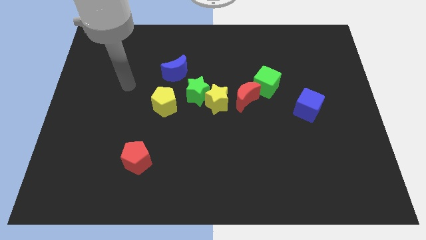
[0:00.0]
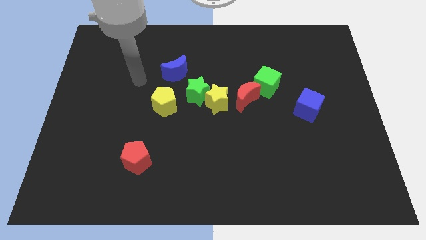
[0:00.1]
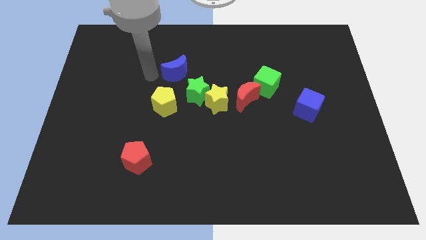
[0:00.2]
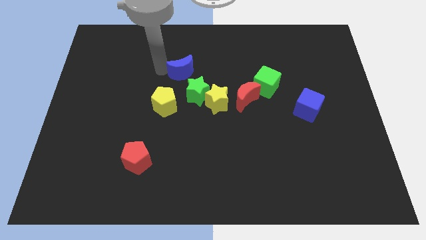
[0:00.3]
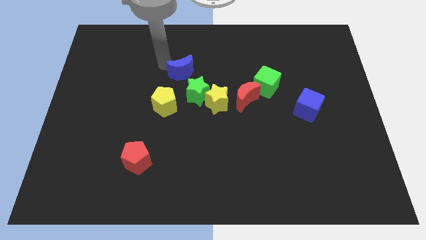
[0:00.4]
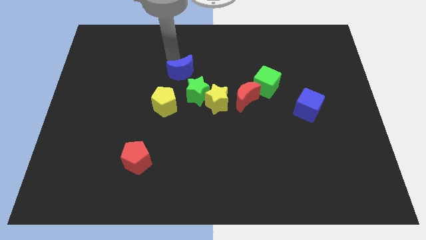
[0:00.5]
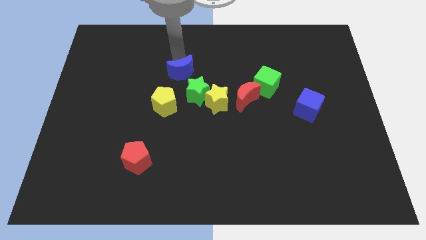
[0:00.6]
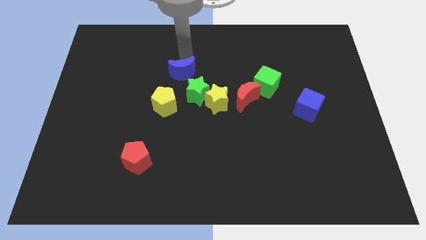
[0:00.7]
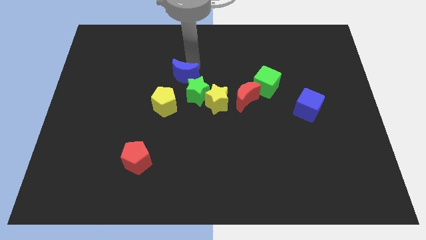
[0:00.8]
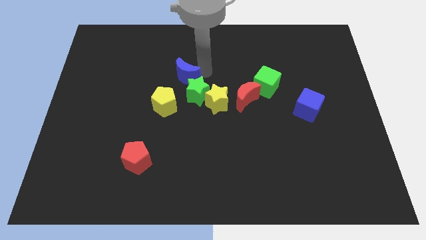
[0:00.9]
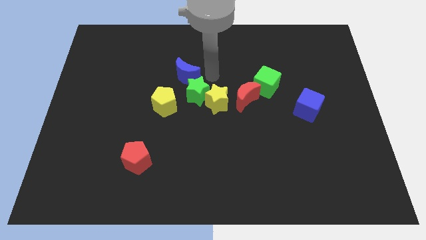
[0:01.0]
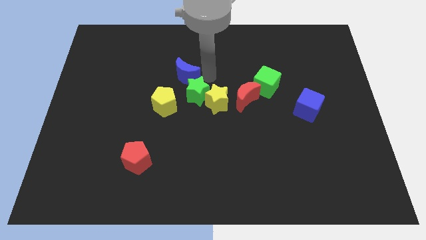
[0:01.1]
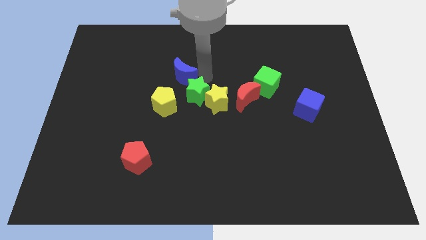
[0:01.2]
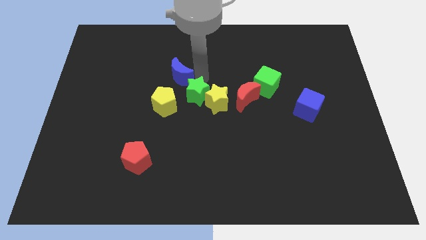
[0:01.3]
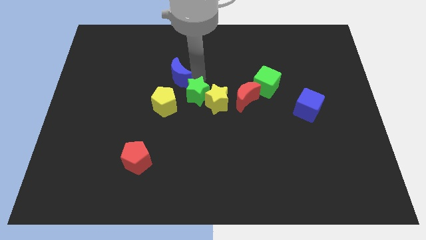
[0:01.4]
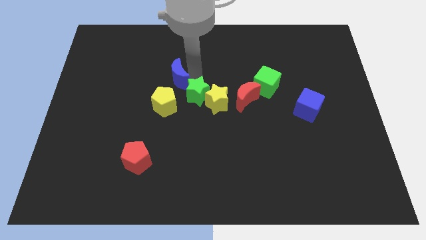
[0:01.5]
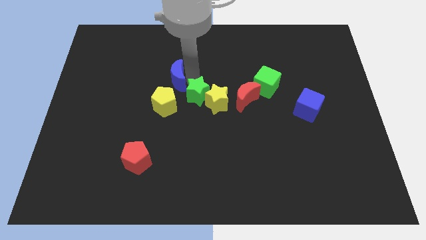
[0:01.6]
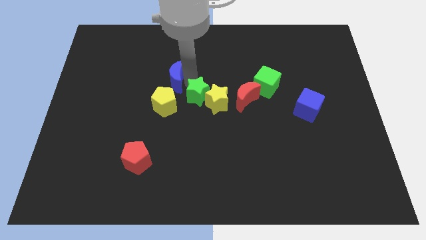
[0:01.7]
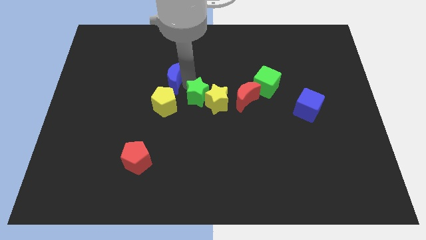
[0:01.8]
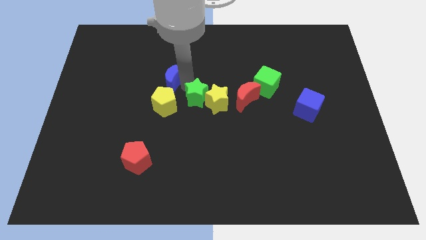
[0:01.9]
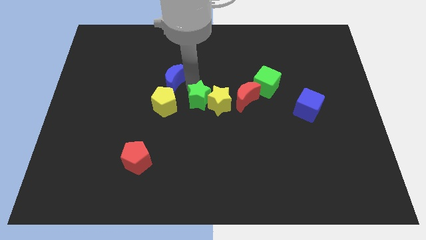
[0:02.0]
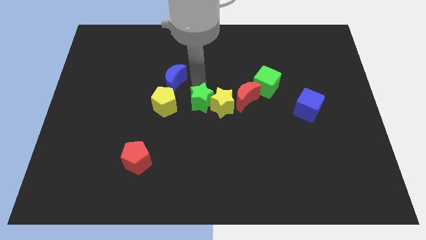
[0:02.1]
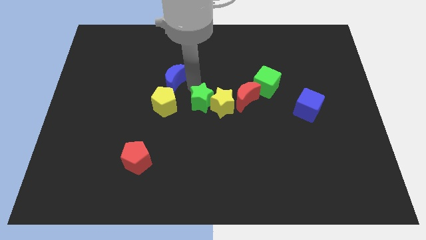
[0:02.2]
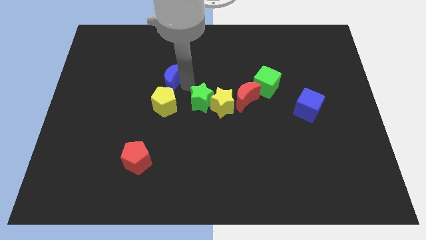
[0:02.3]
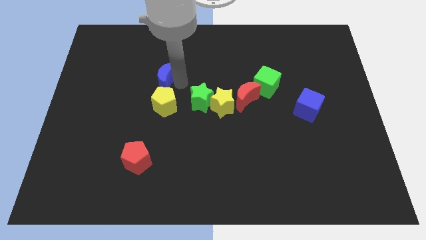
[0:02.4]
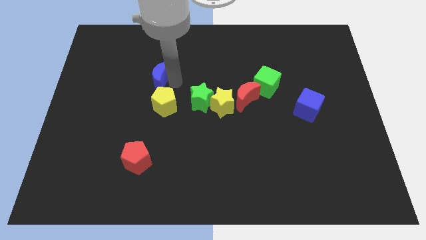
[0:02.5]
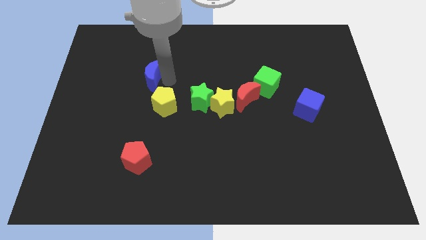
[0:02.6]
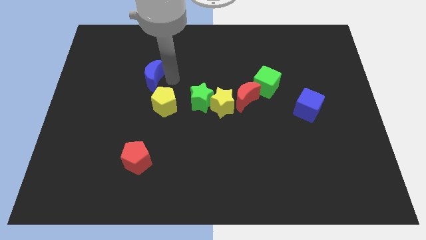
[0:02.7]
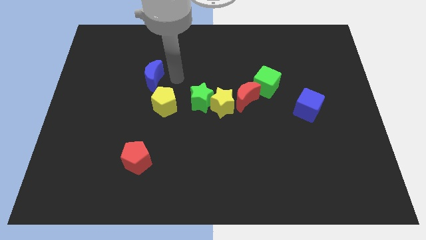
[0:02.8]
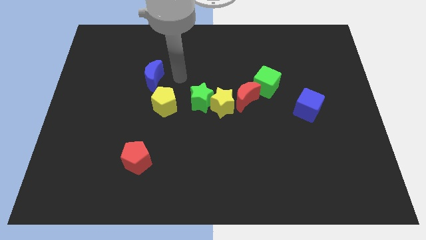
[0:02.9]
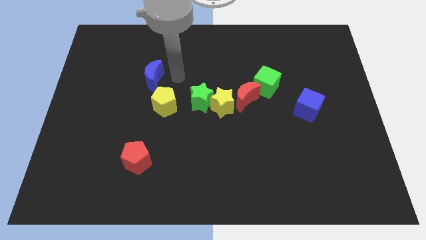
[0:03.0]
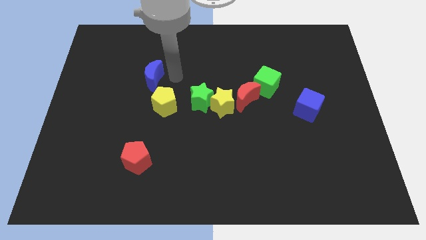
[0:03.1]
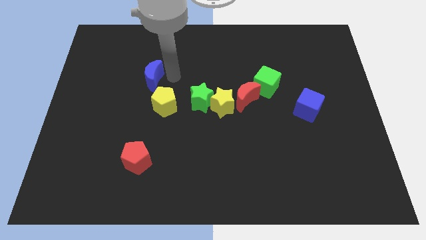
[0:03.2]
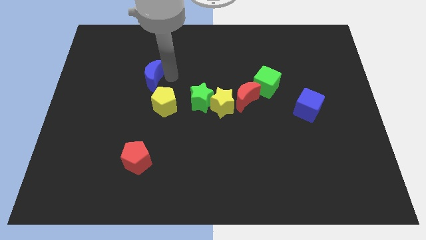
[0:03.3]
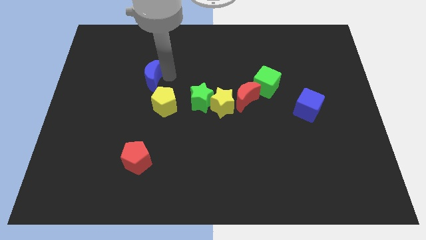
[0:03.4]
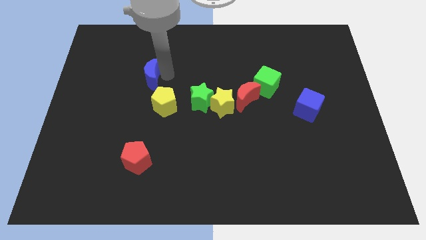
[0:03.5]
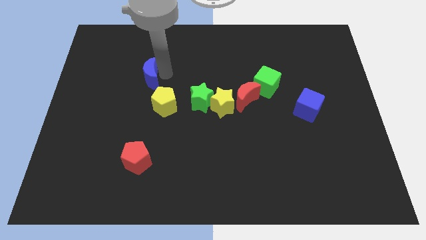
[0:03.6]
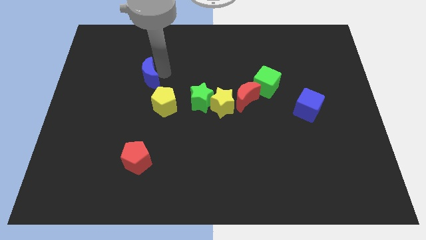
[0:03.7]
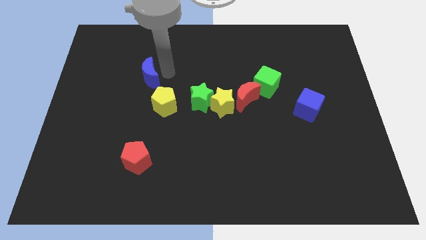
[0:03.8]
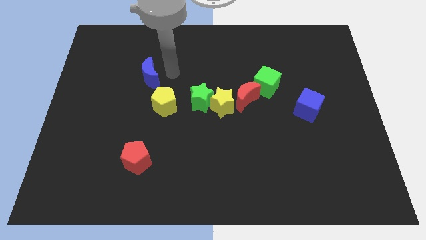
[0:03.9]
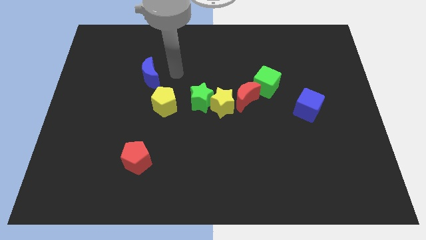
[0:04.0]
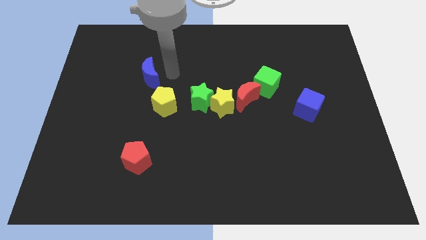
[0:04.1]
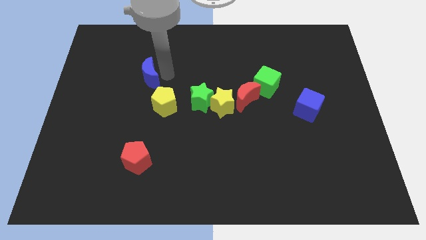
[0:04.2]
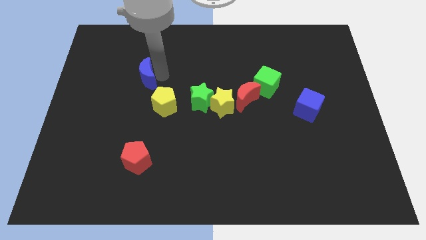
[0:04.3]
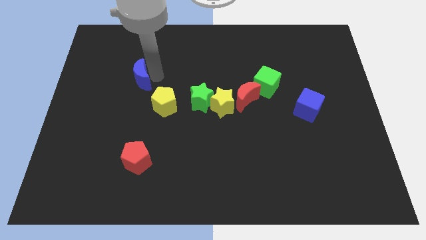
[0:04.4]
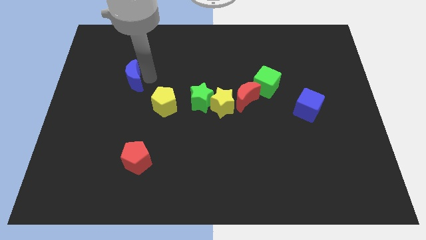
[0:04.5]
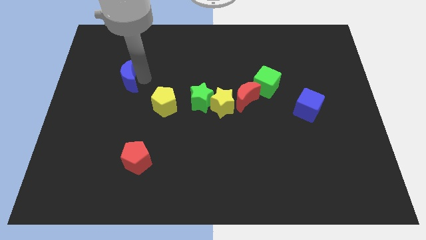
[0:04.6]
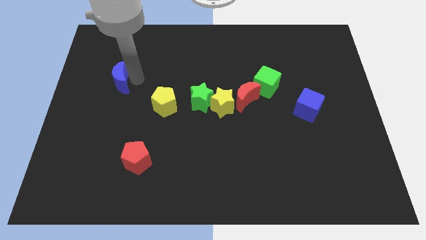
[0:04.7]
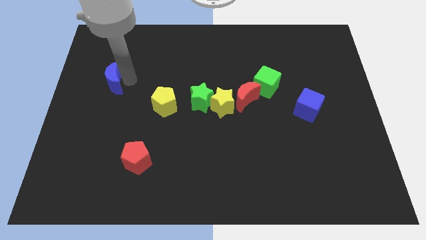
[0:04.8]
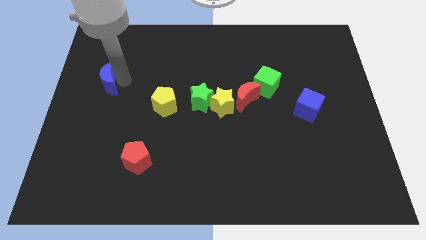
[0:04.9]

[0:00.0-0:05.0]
put the blue moon to the center left

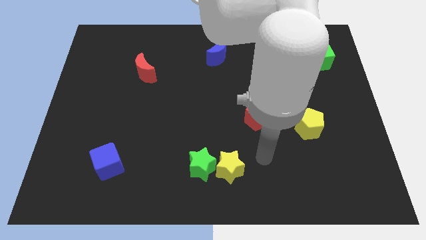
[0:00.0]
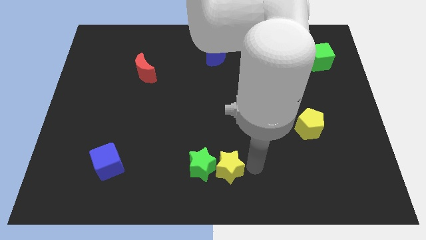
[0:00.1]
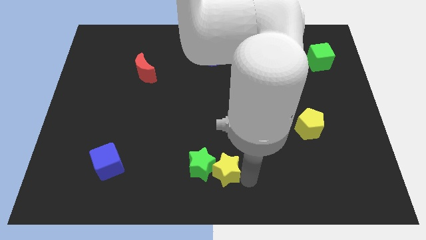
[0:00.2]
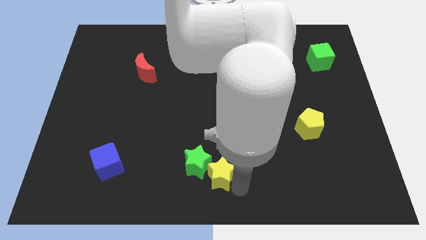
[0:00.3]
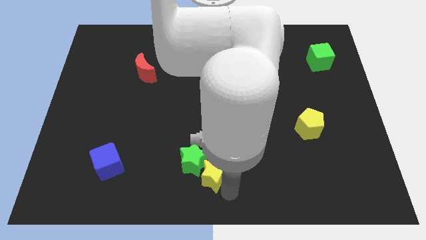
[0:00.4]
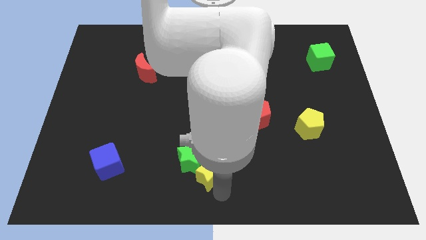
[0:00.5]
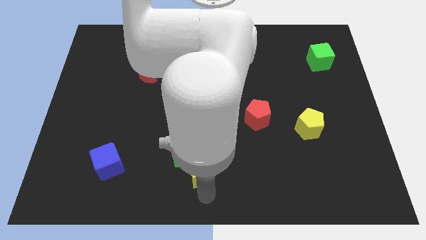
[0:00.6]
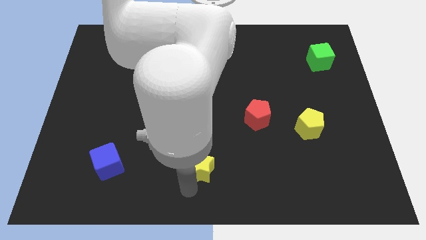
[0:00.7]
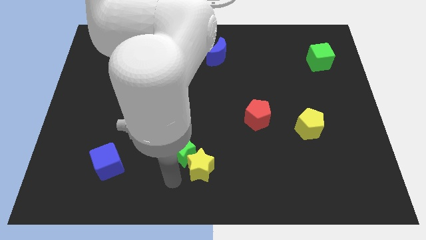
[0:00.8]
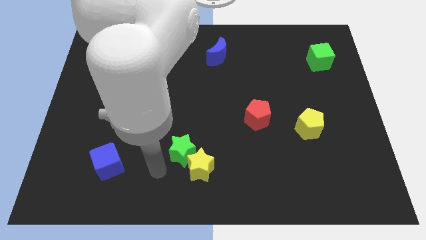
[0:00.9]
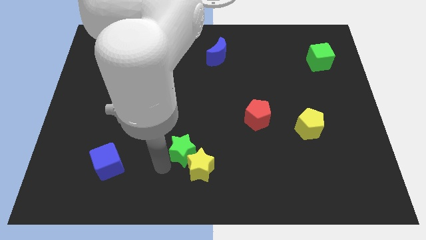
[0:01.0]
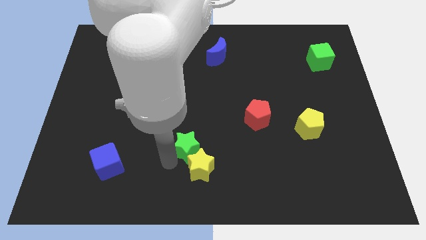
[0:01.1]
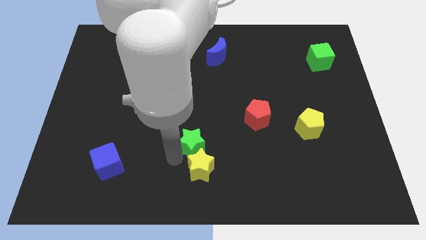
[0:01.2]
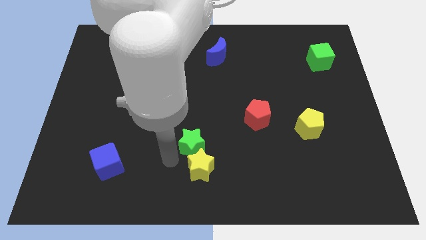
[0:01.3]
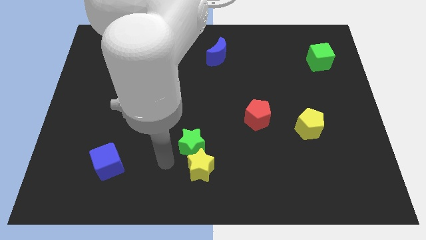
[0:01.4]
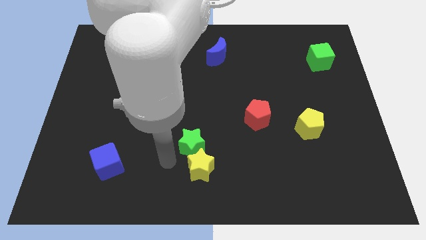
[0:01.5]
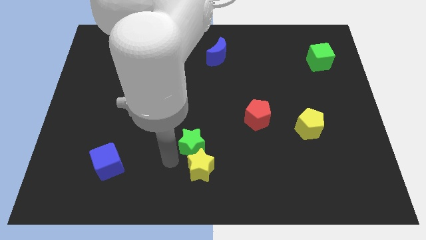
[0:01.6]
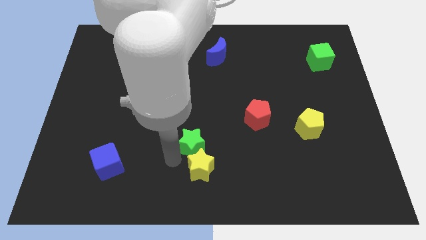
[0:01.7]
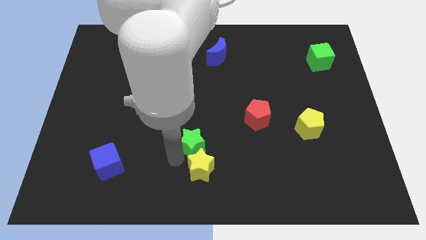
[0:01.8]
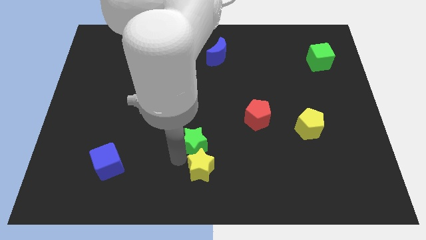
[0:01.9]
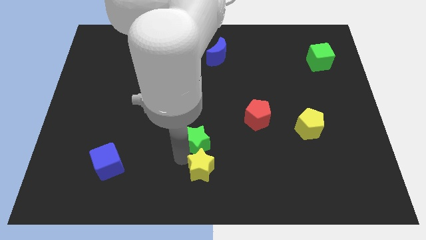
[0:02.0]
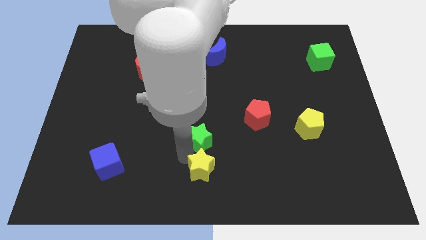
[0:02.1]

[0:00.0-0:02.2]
slide the green star to the middle of the board
